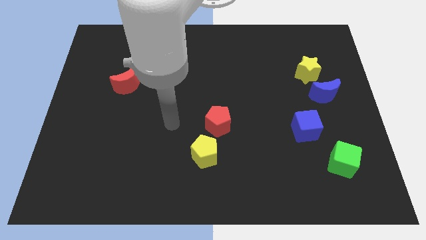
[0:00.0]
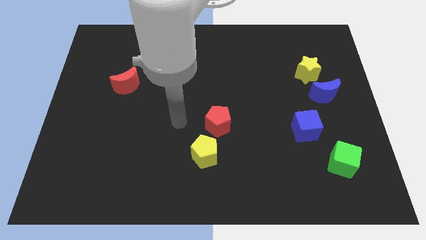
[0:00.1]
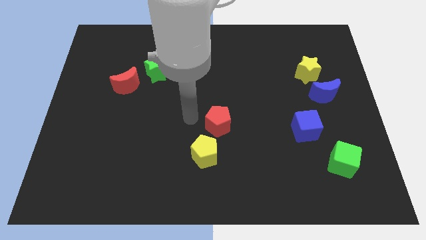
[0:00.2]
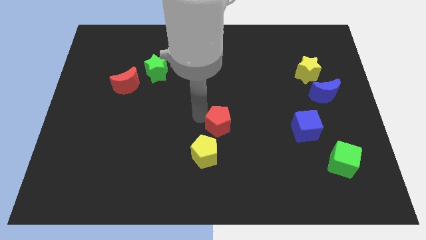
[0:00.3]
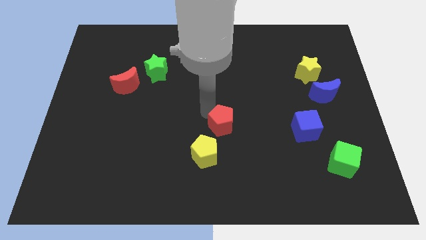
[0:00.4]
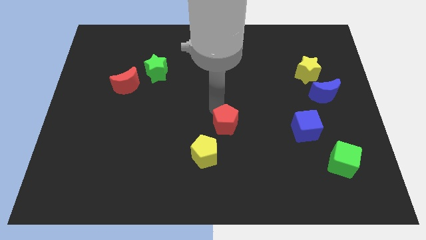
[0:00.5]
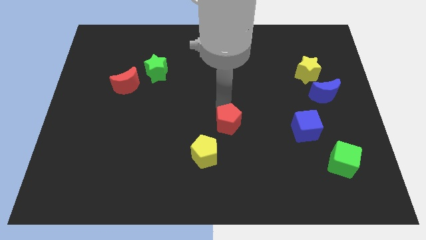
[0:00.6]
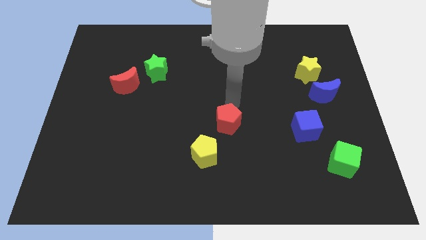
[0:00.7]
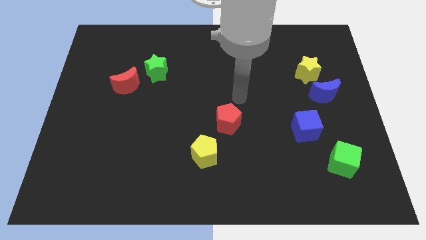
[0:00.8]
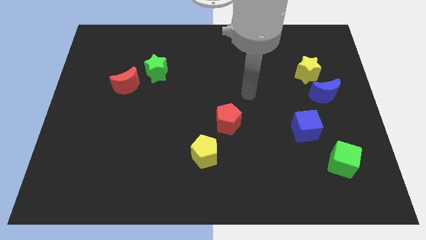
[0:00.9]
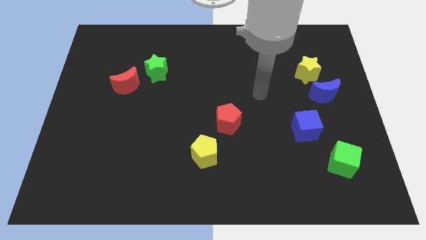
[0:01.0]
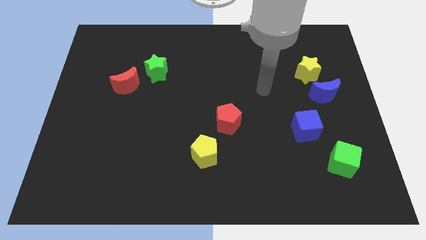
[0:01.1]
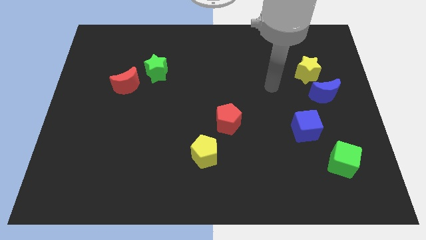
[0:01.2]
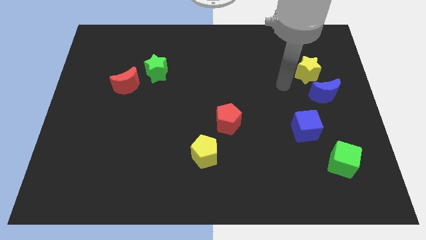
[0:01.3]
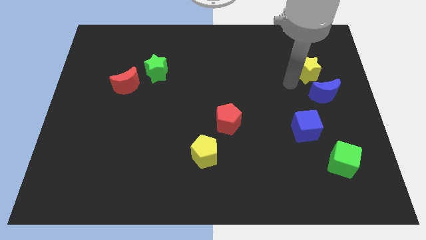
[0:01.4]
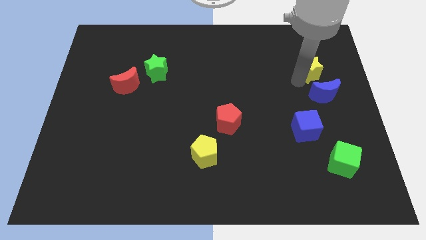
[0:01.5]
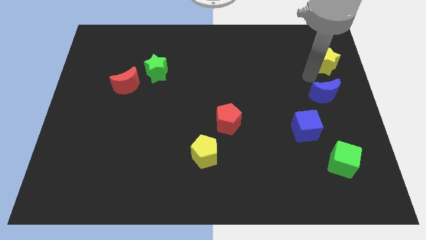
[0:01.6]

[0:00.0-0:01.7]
move the blue moon away from the yellow star

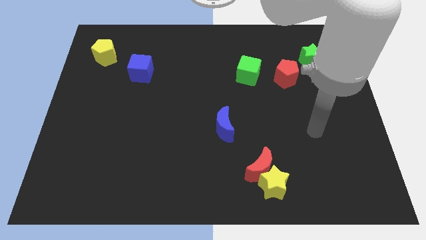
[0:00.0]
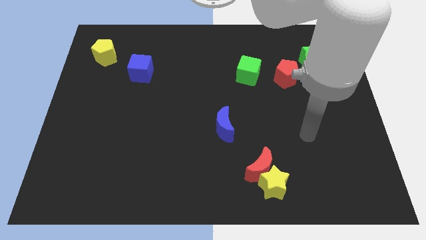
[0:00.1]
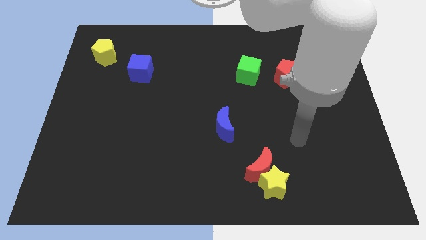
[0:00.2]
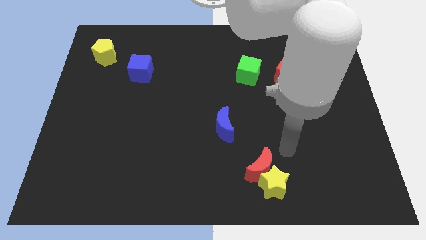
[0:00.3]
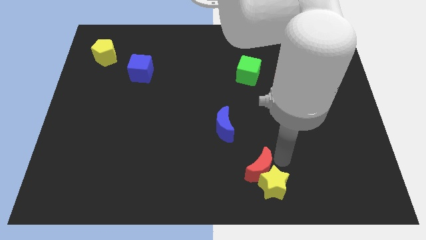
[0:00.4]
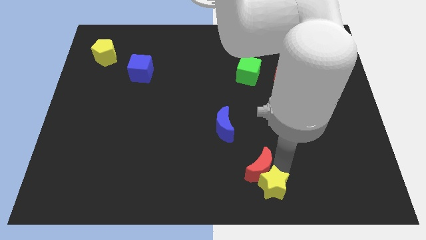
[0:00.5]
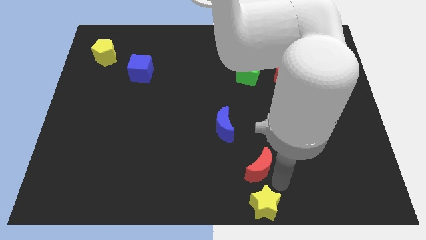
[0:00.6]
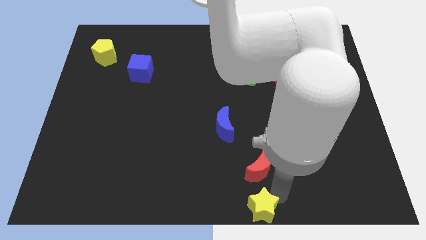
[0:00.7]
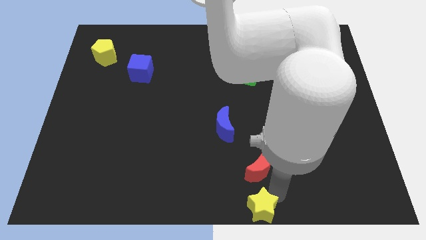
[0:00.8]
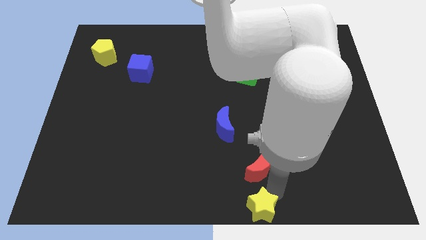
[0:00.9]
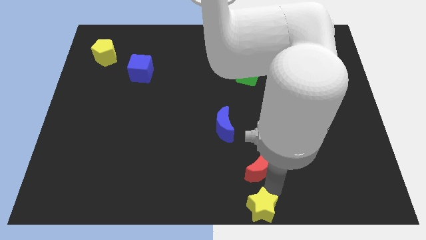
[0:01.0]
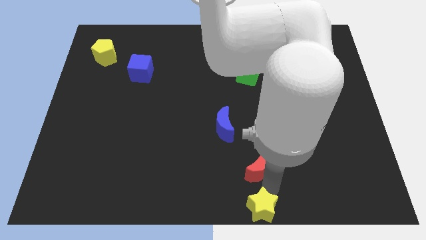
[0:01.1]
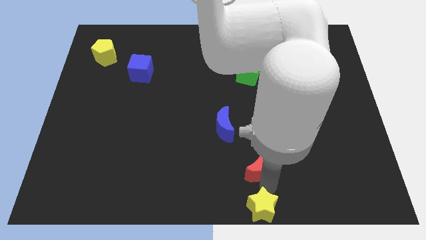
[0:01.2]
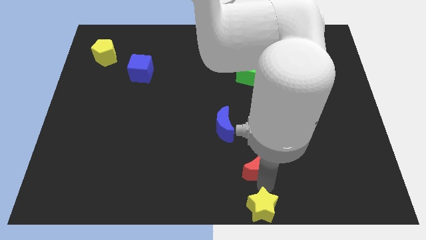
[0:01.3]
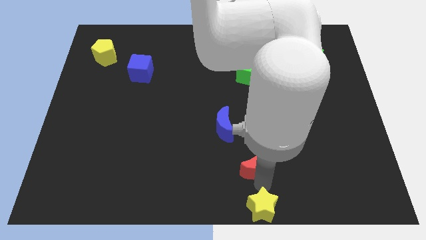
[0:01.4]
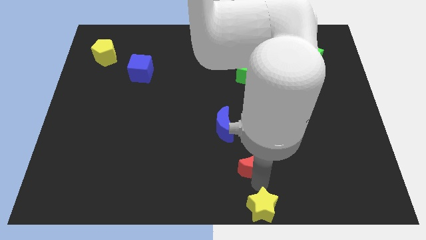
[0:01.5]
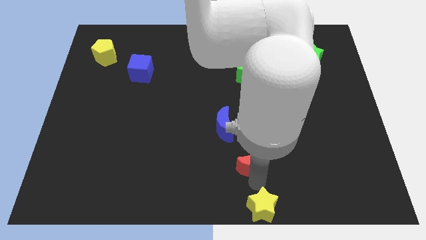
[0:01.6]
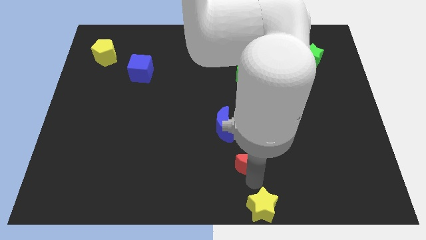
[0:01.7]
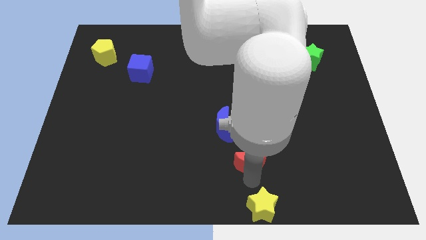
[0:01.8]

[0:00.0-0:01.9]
separate the red moon from the yellow star

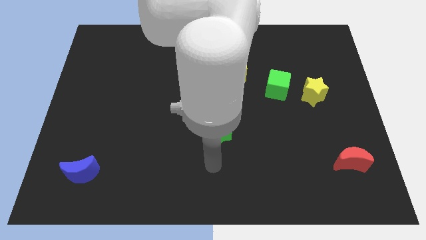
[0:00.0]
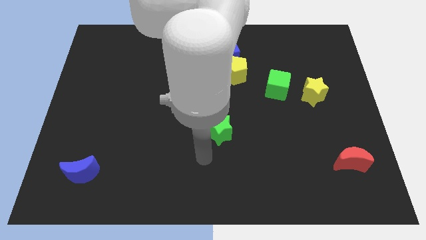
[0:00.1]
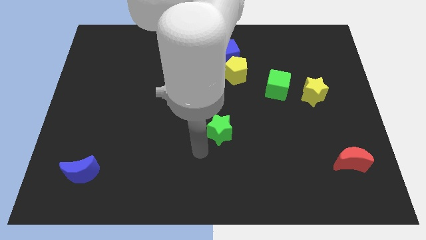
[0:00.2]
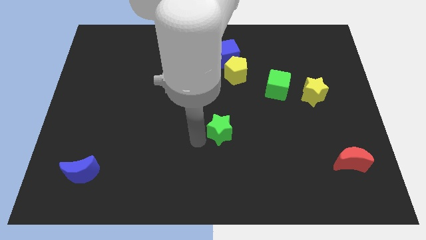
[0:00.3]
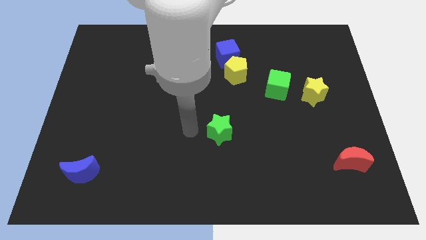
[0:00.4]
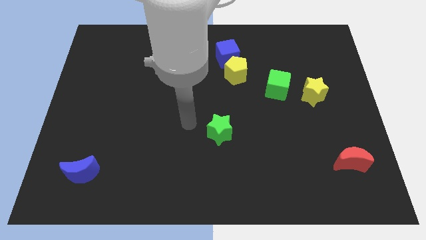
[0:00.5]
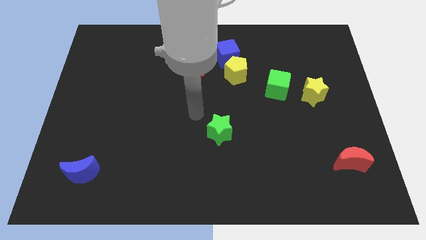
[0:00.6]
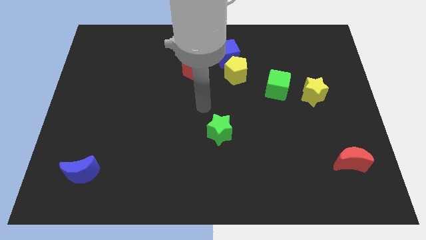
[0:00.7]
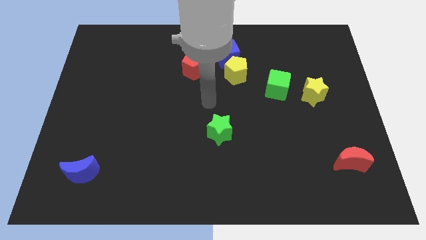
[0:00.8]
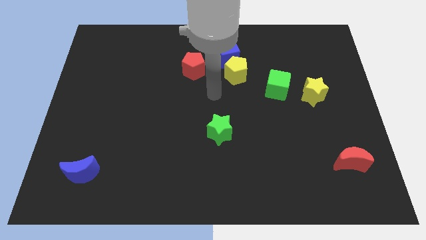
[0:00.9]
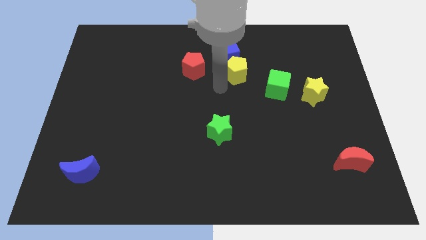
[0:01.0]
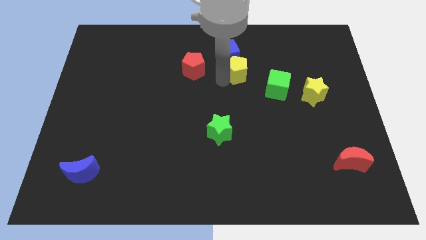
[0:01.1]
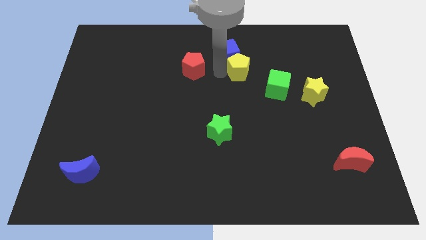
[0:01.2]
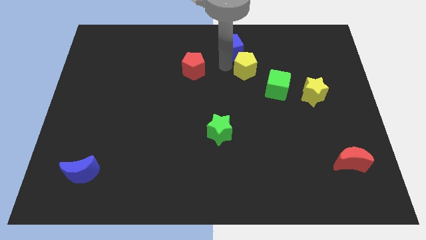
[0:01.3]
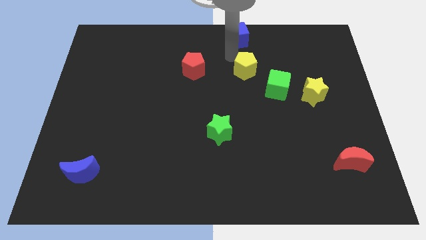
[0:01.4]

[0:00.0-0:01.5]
move the yellow pentagon away from the blue cube

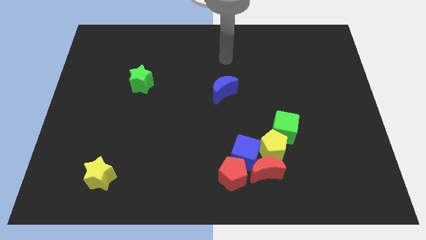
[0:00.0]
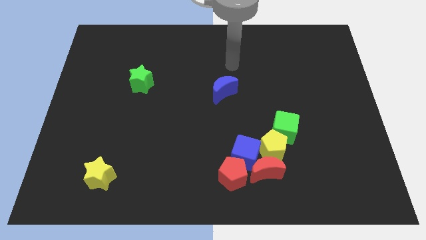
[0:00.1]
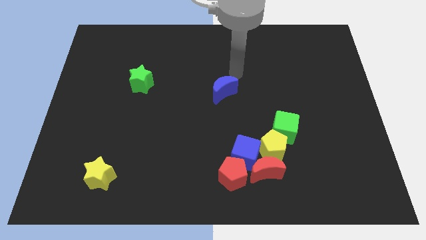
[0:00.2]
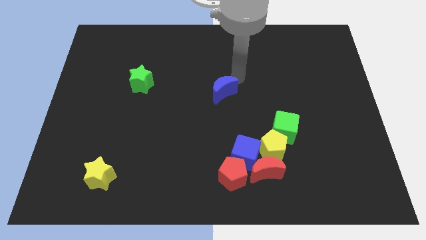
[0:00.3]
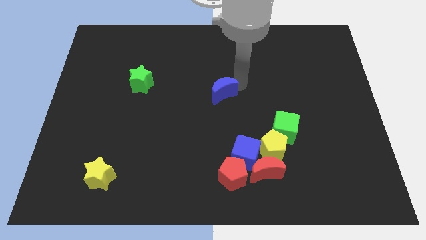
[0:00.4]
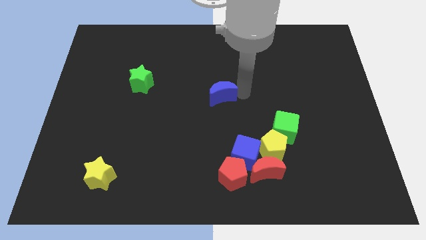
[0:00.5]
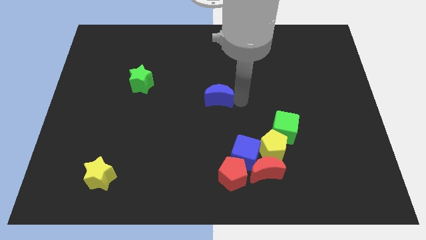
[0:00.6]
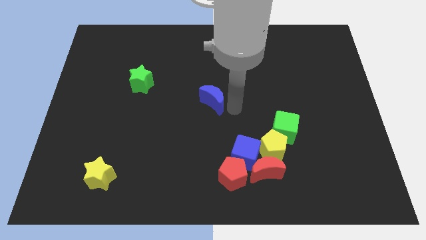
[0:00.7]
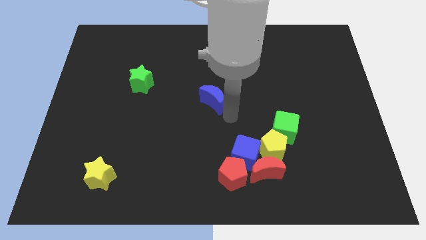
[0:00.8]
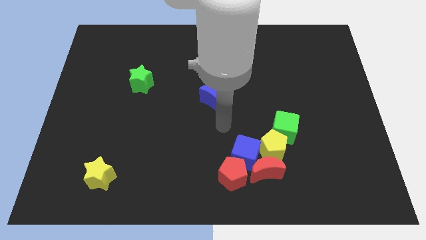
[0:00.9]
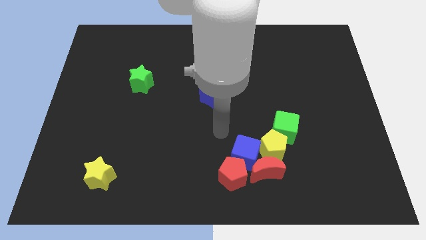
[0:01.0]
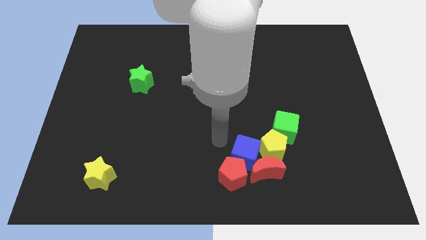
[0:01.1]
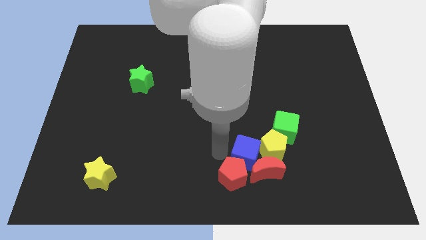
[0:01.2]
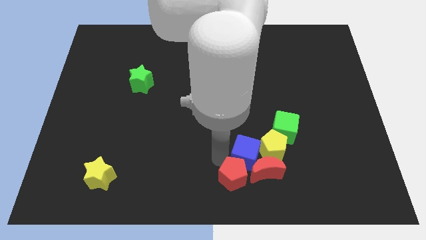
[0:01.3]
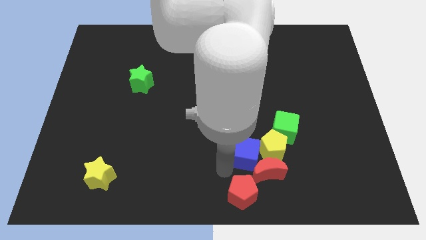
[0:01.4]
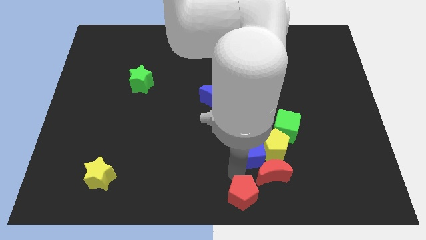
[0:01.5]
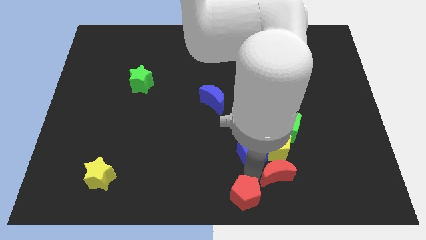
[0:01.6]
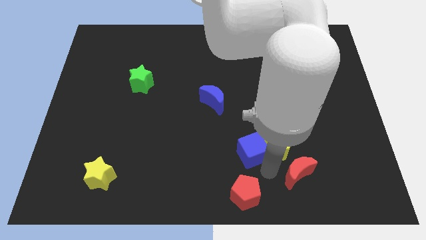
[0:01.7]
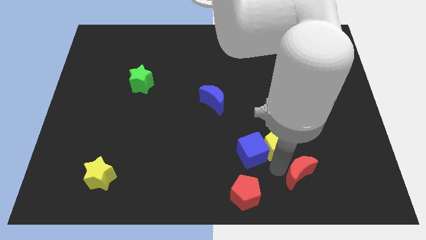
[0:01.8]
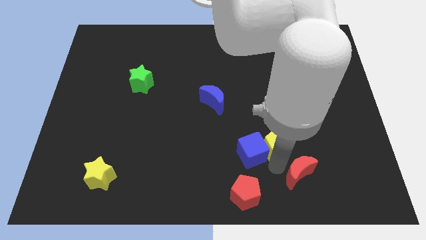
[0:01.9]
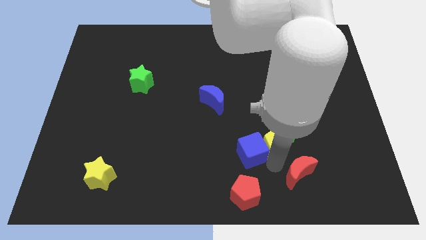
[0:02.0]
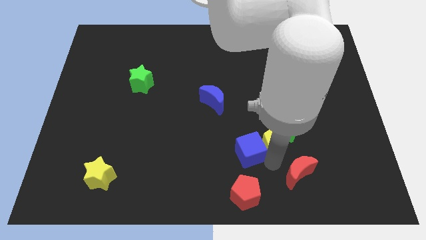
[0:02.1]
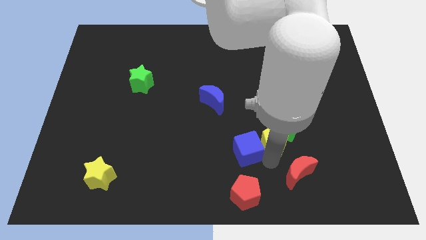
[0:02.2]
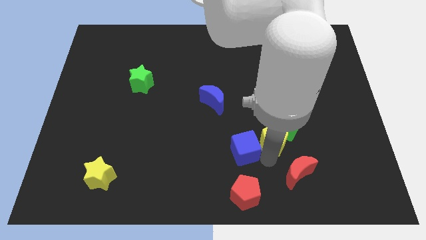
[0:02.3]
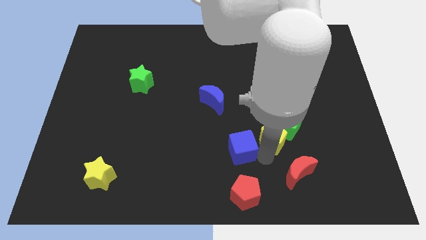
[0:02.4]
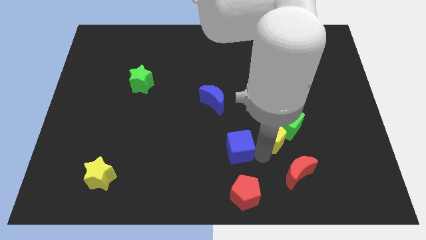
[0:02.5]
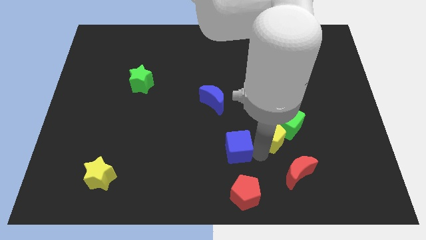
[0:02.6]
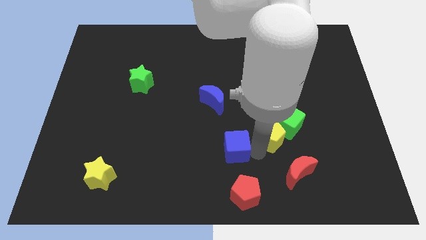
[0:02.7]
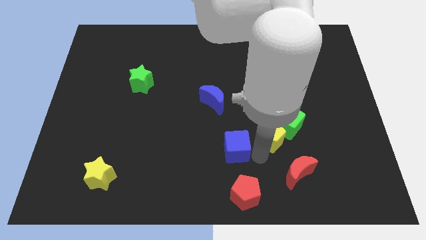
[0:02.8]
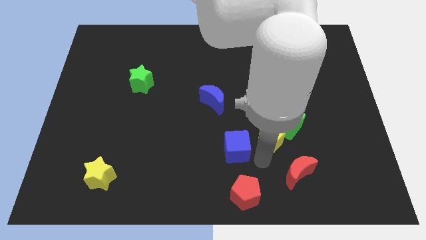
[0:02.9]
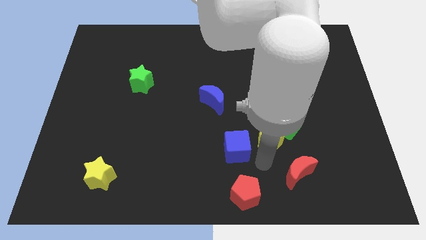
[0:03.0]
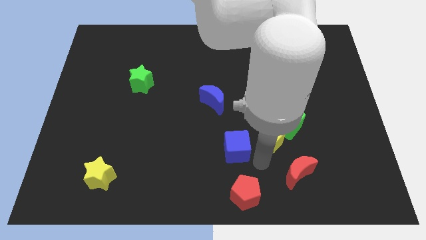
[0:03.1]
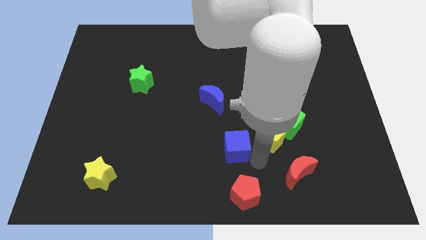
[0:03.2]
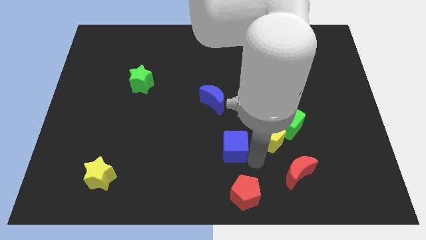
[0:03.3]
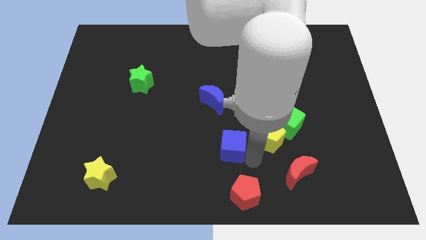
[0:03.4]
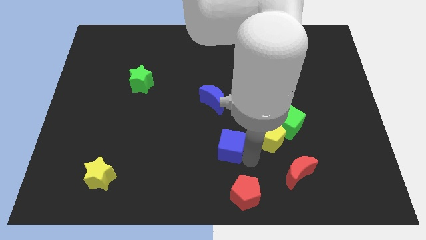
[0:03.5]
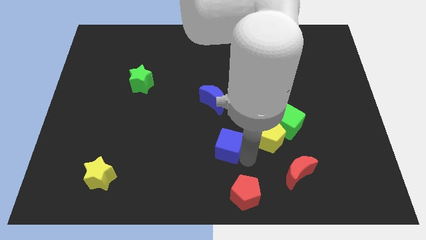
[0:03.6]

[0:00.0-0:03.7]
separate the blue cube from the clump

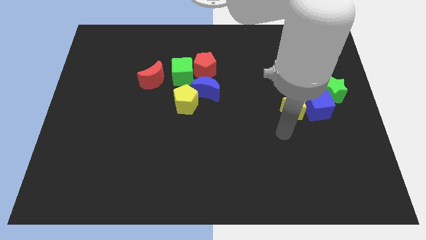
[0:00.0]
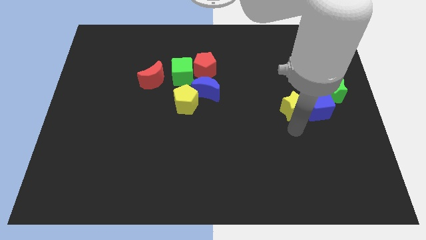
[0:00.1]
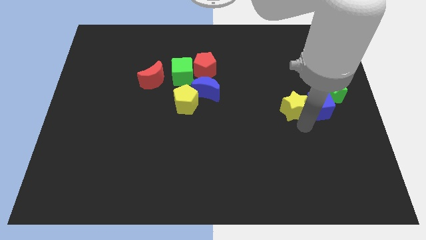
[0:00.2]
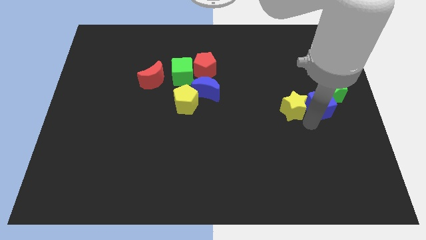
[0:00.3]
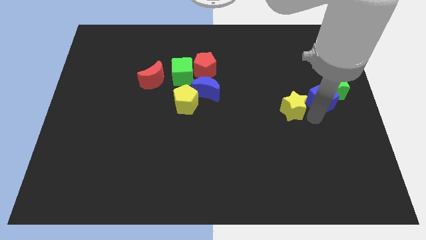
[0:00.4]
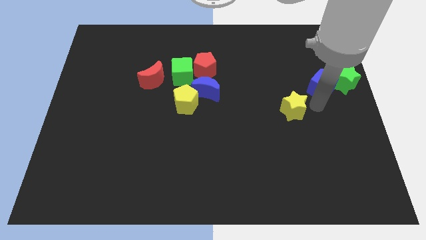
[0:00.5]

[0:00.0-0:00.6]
move the yellow star away from the blue cube

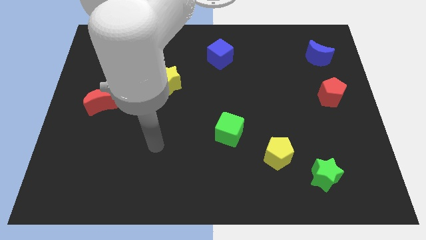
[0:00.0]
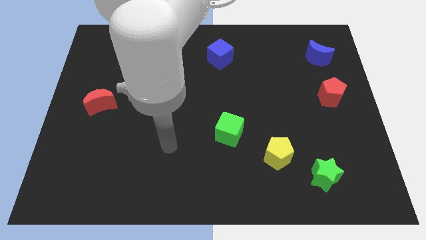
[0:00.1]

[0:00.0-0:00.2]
pull the green star apart from the yellow pentagon
